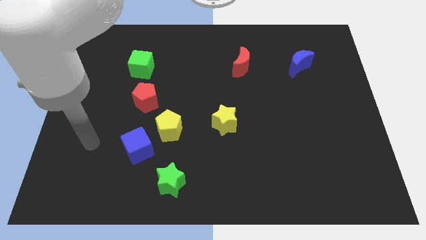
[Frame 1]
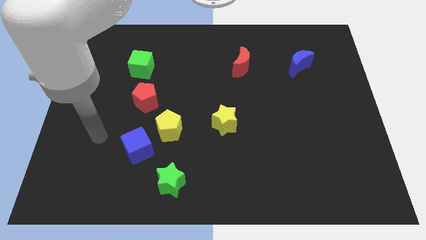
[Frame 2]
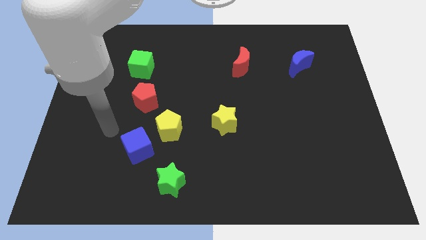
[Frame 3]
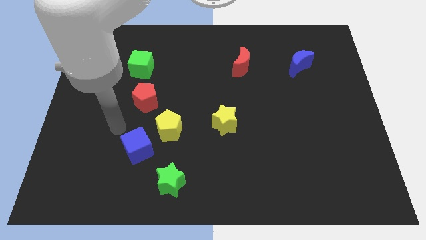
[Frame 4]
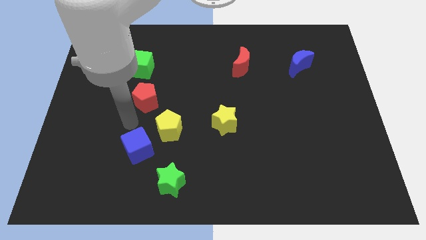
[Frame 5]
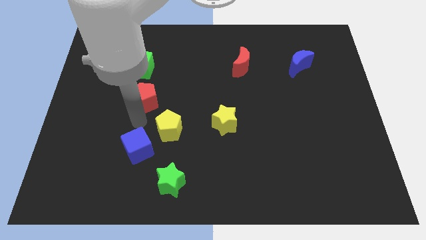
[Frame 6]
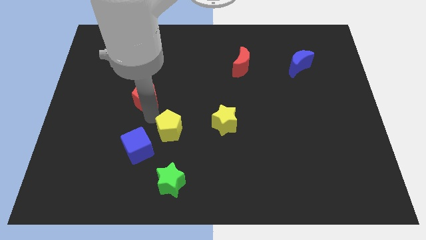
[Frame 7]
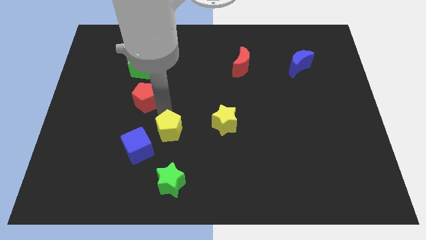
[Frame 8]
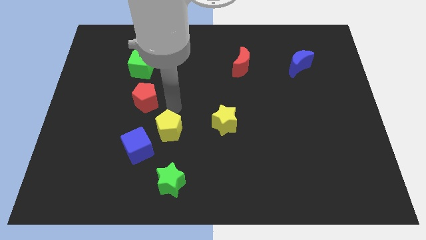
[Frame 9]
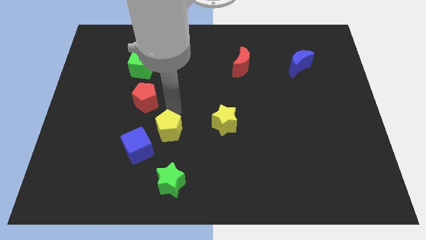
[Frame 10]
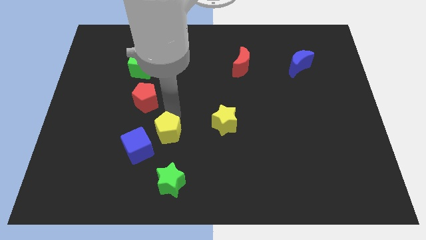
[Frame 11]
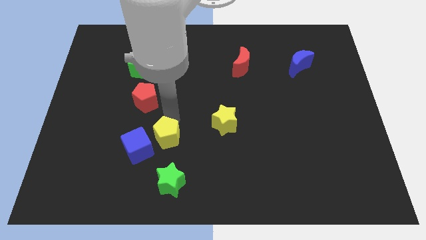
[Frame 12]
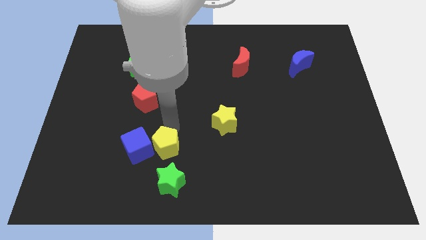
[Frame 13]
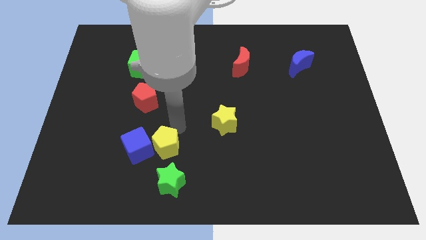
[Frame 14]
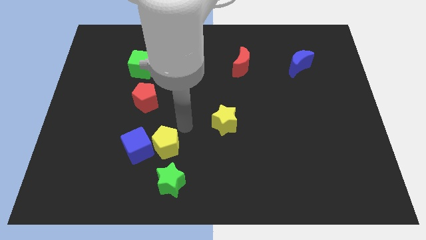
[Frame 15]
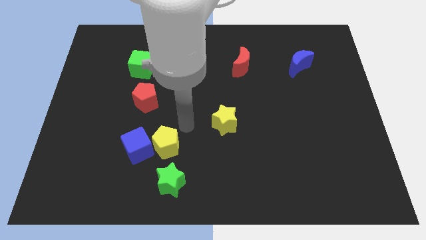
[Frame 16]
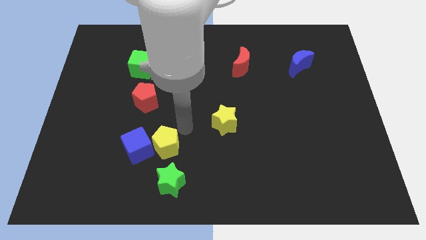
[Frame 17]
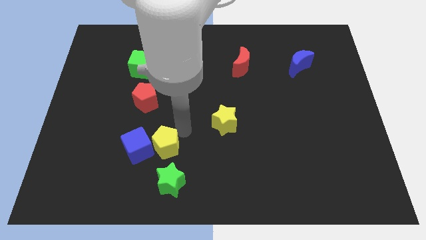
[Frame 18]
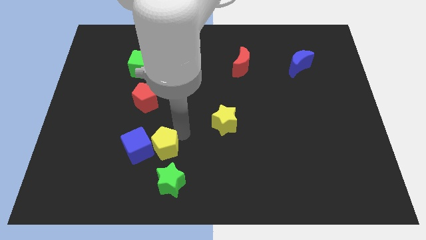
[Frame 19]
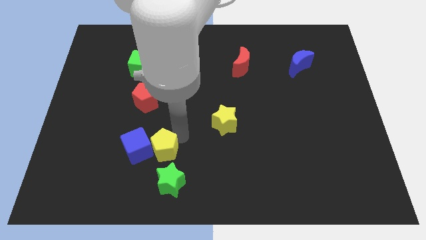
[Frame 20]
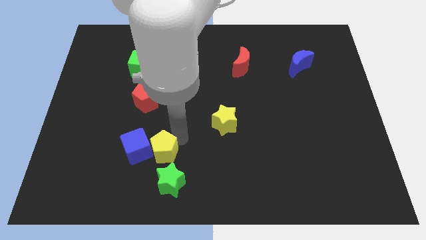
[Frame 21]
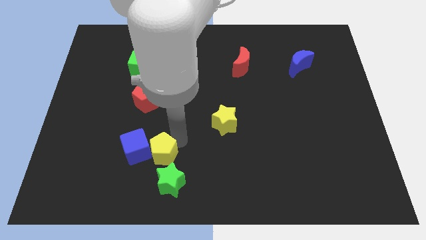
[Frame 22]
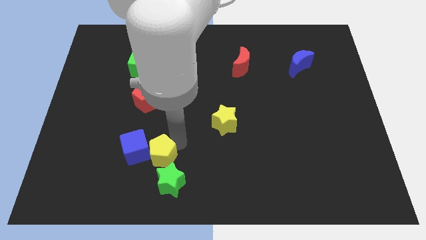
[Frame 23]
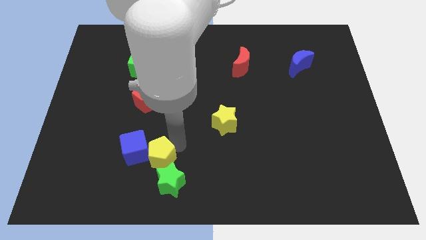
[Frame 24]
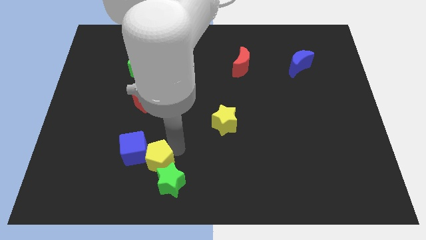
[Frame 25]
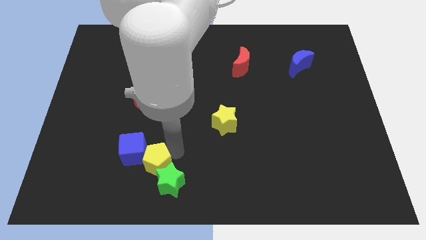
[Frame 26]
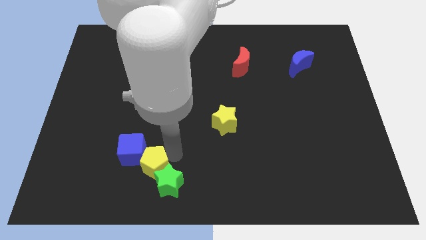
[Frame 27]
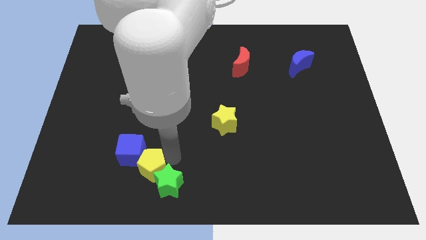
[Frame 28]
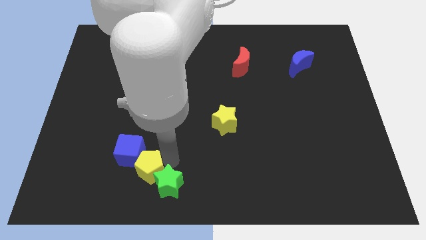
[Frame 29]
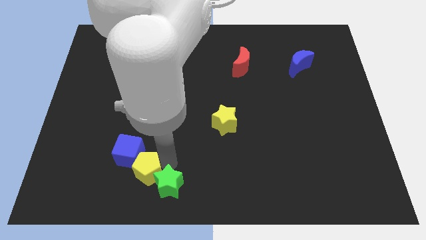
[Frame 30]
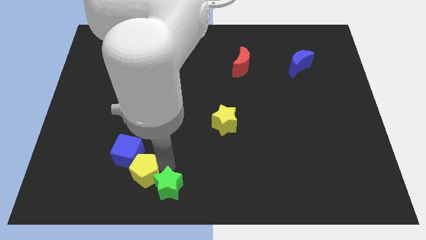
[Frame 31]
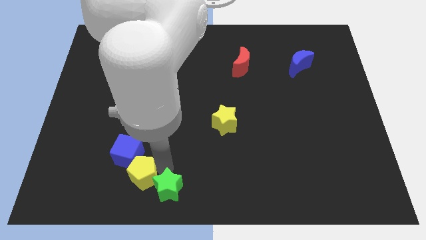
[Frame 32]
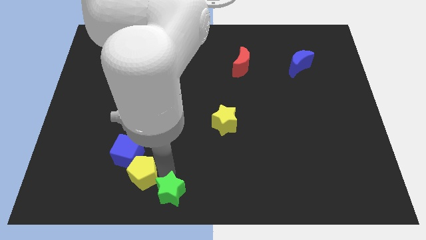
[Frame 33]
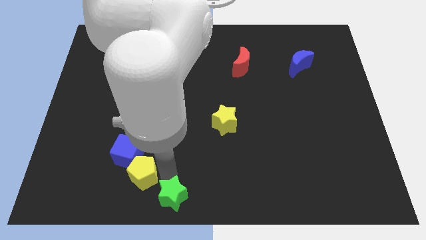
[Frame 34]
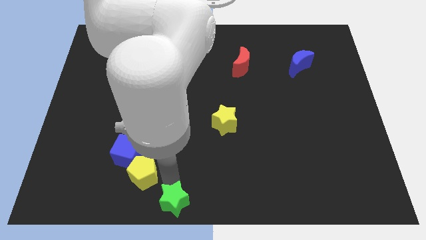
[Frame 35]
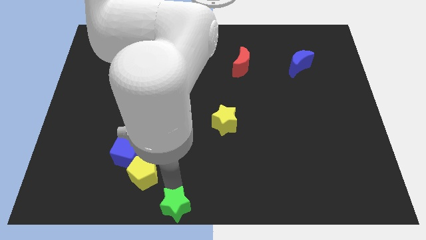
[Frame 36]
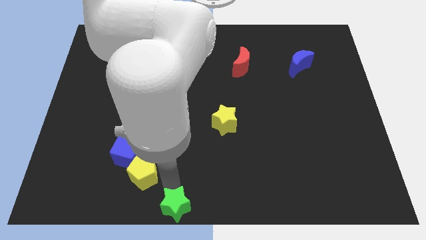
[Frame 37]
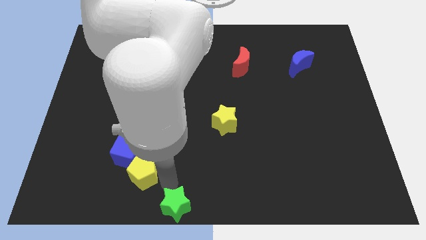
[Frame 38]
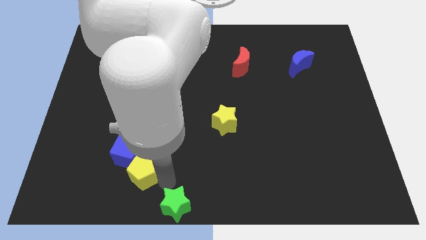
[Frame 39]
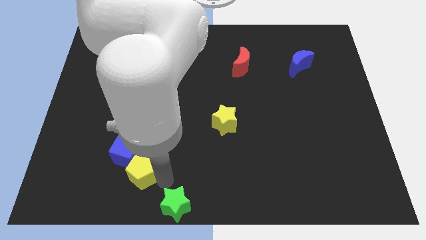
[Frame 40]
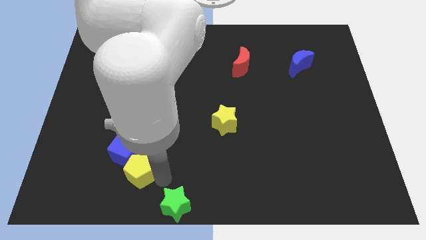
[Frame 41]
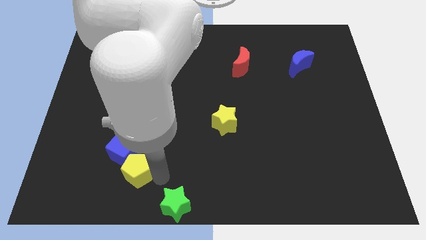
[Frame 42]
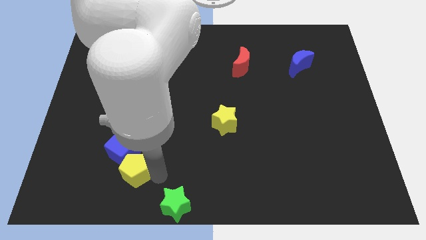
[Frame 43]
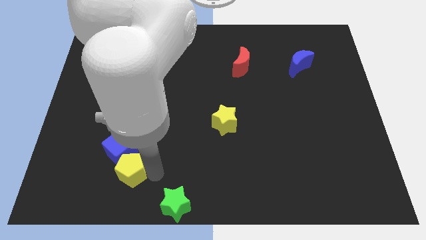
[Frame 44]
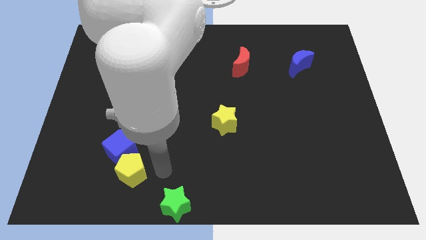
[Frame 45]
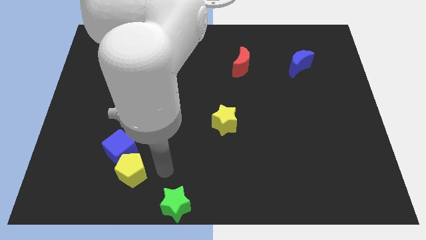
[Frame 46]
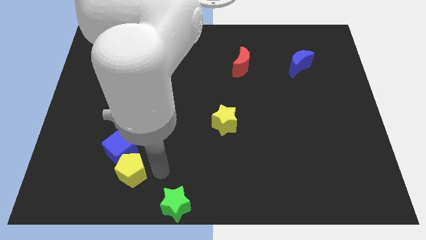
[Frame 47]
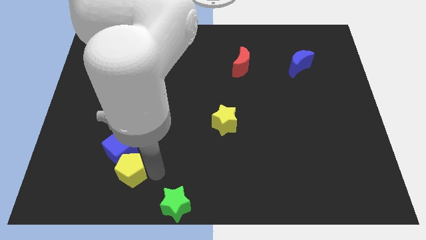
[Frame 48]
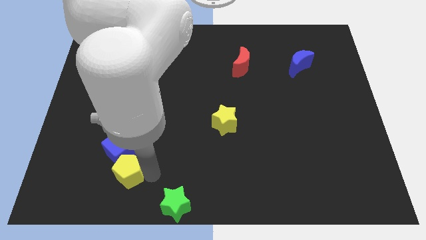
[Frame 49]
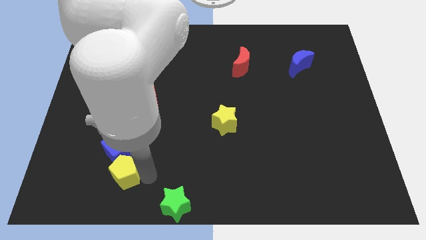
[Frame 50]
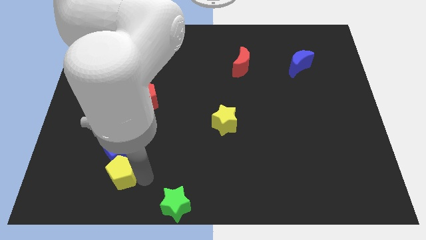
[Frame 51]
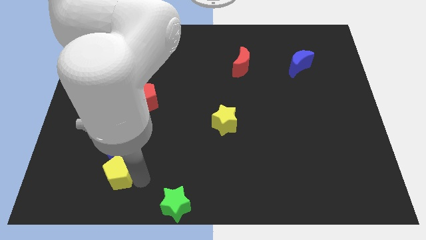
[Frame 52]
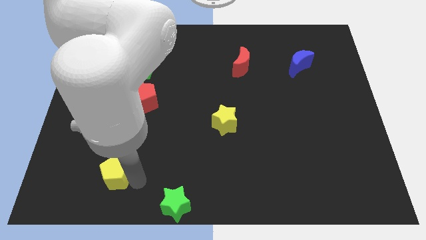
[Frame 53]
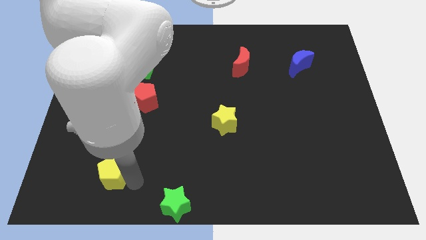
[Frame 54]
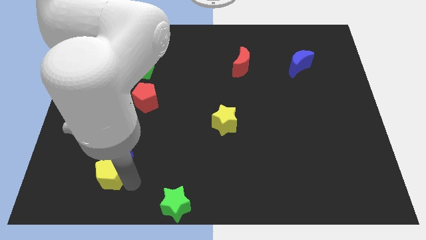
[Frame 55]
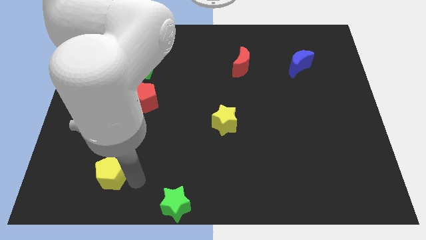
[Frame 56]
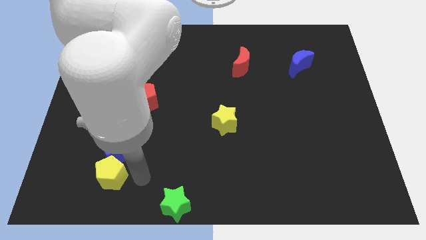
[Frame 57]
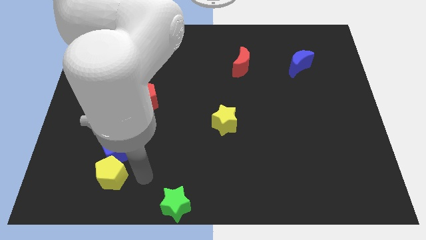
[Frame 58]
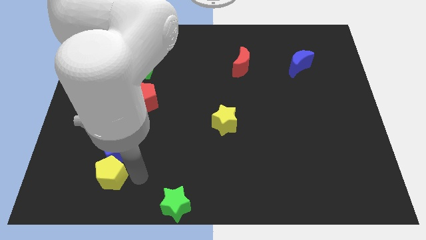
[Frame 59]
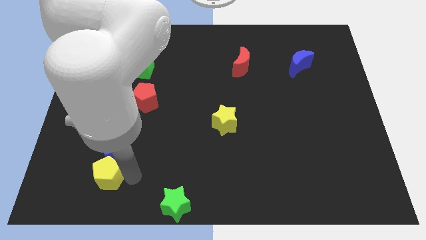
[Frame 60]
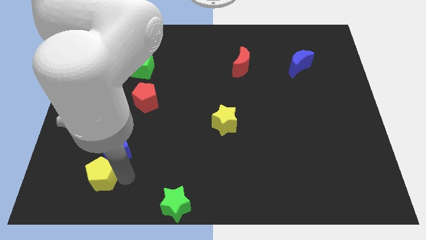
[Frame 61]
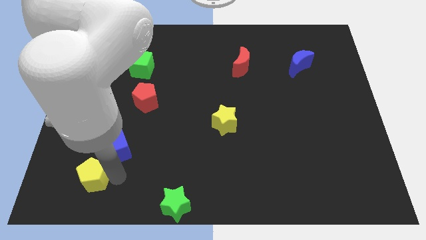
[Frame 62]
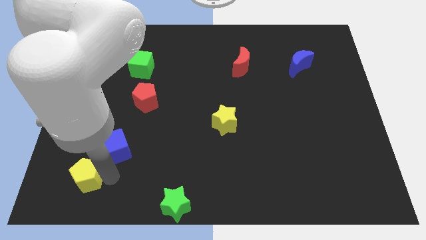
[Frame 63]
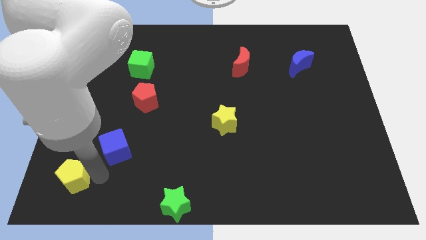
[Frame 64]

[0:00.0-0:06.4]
put the yellow pentagon to the bottom left
